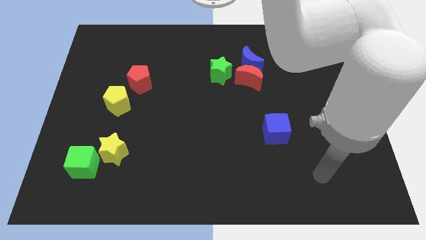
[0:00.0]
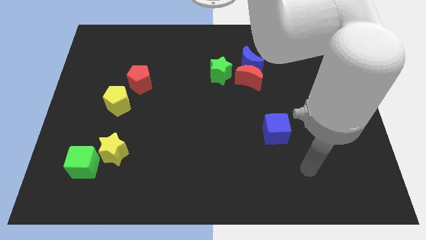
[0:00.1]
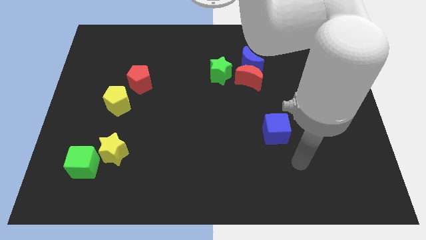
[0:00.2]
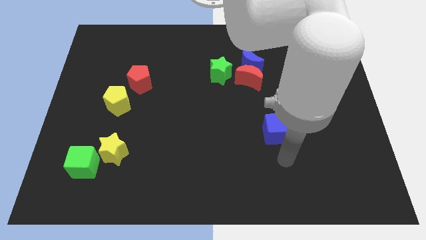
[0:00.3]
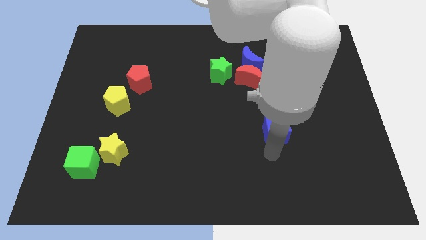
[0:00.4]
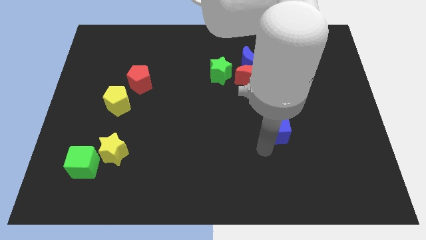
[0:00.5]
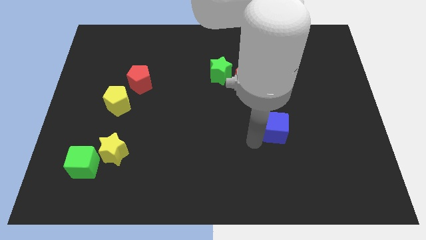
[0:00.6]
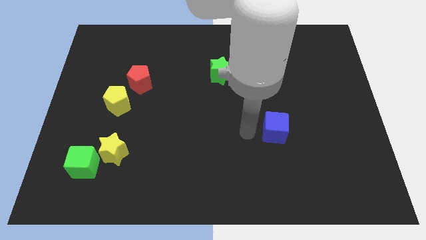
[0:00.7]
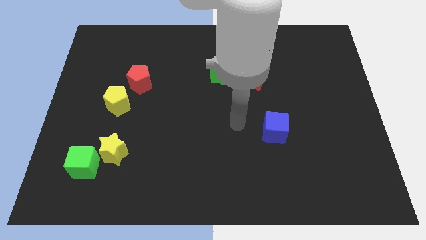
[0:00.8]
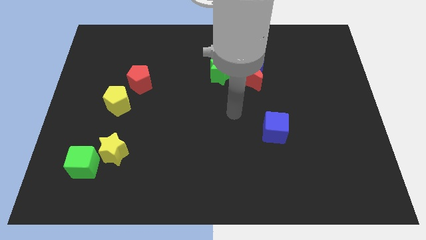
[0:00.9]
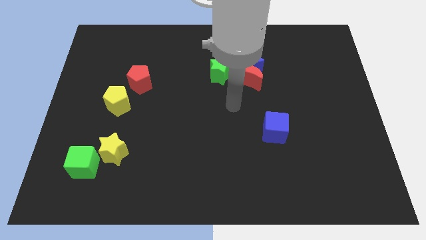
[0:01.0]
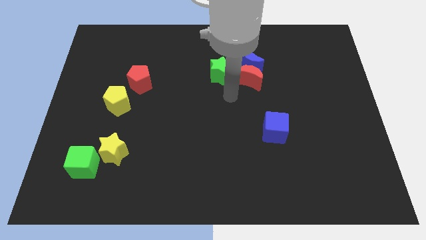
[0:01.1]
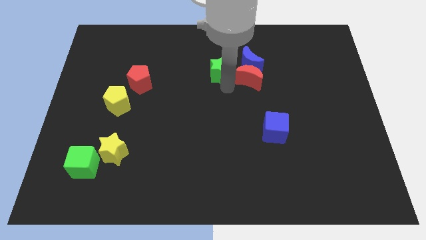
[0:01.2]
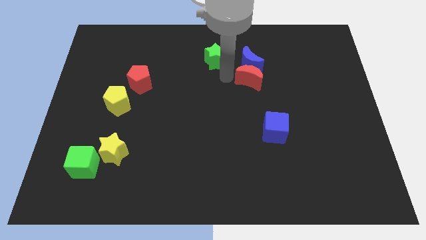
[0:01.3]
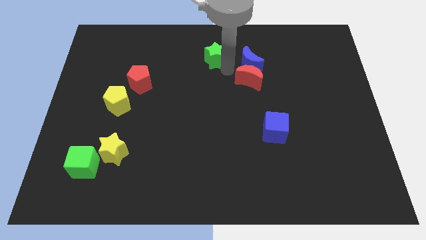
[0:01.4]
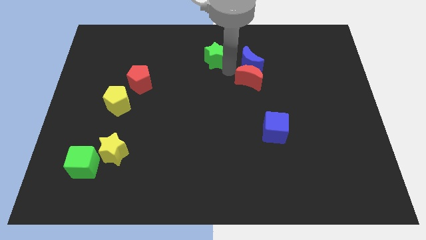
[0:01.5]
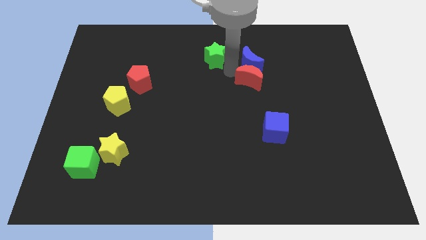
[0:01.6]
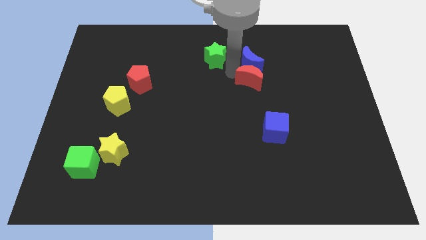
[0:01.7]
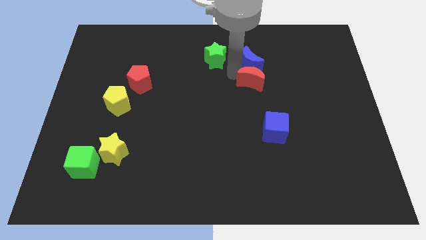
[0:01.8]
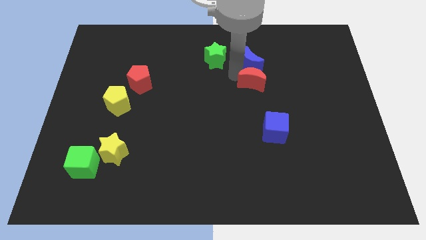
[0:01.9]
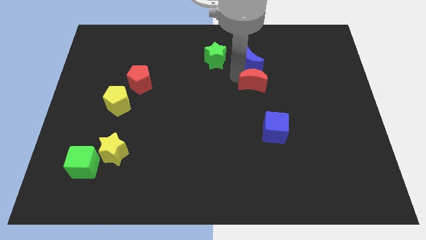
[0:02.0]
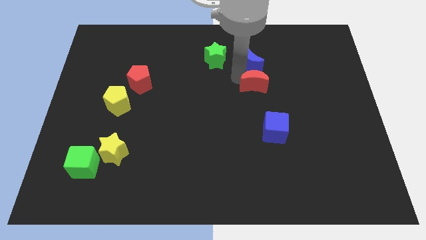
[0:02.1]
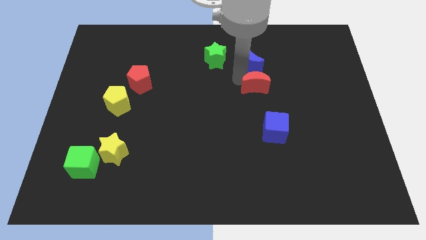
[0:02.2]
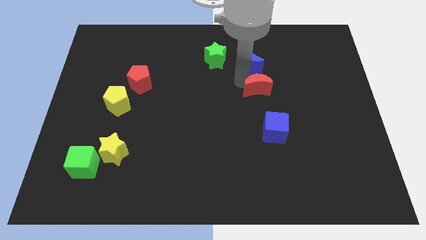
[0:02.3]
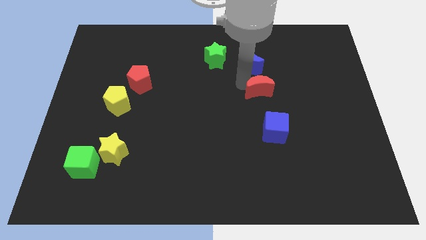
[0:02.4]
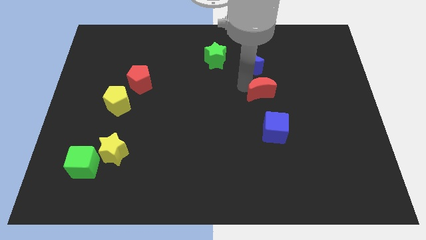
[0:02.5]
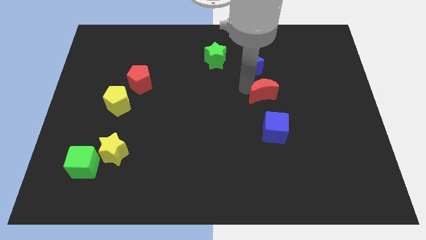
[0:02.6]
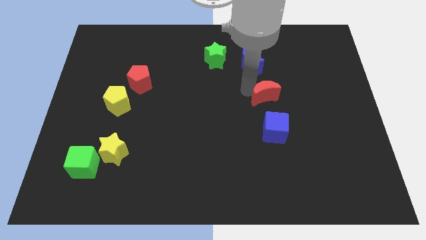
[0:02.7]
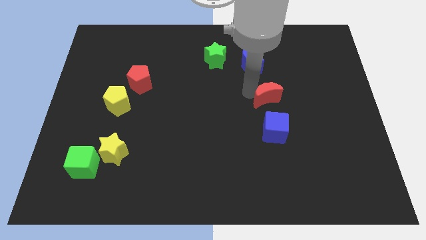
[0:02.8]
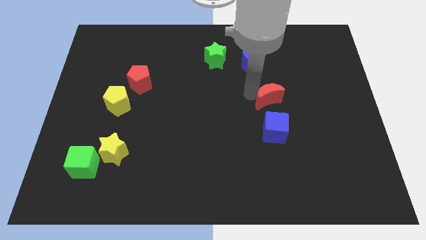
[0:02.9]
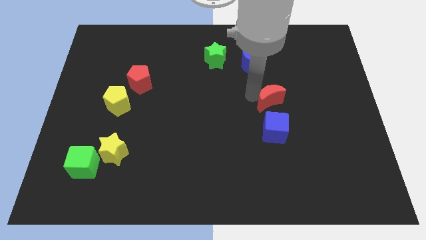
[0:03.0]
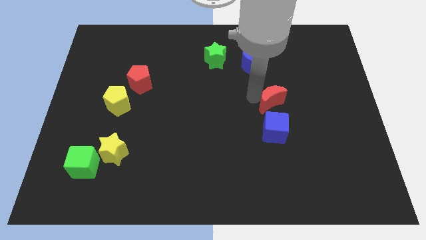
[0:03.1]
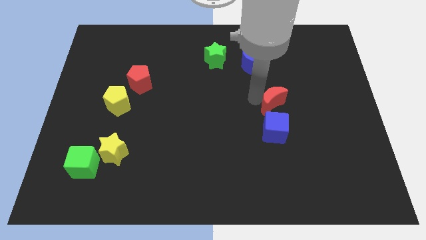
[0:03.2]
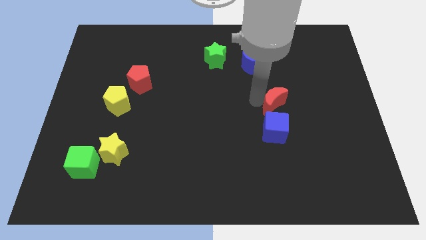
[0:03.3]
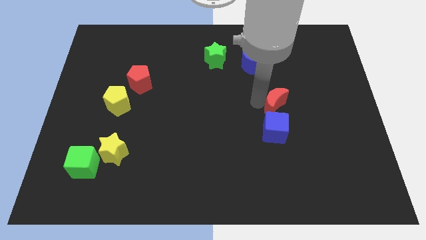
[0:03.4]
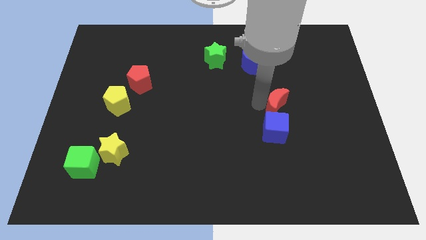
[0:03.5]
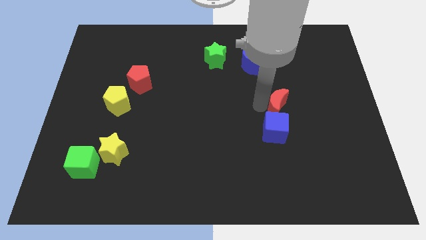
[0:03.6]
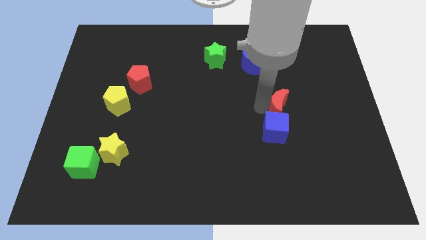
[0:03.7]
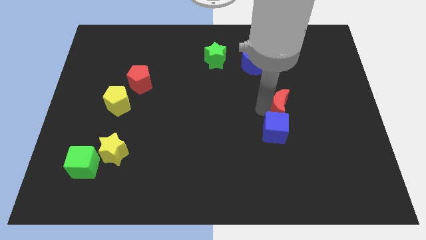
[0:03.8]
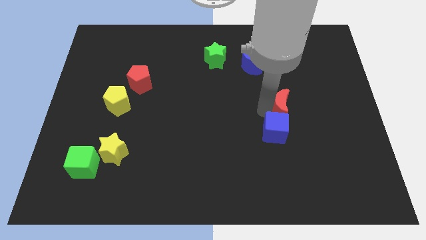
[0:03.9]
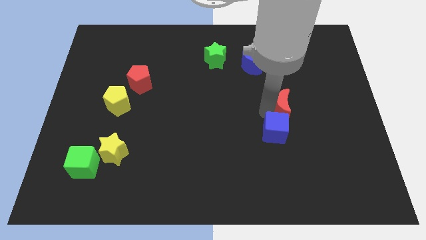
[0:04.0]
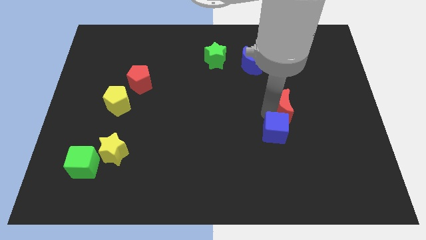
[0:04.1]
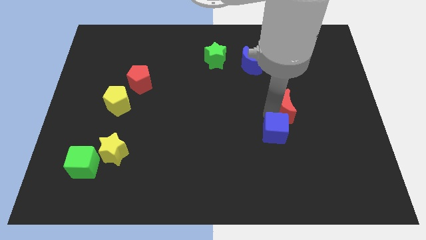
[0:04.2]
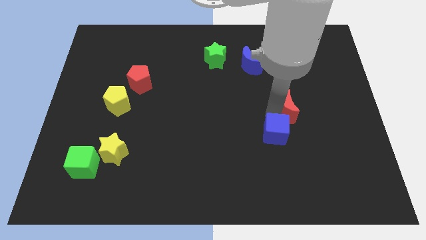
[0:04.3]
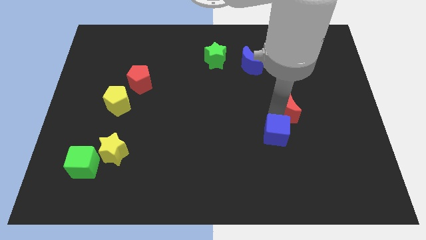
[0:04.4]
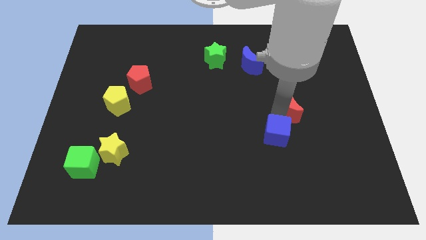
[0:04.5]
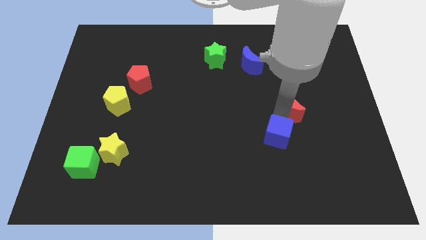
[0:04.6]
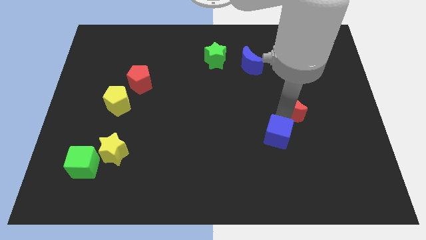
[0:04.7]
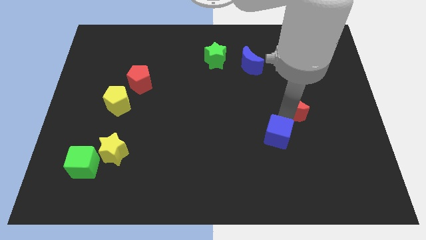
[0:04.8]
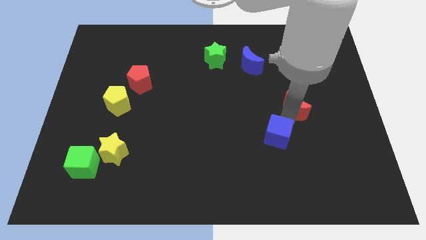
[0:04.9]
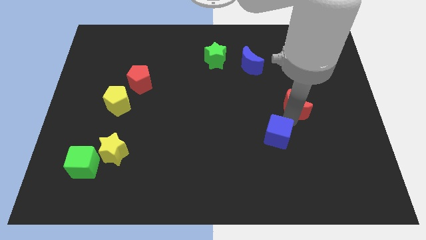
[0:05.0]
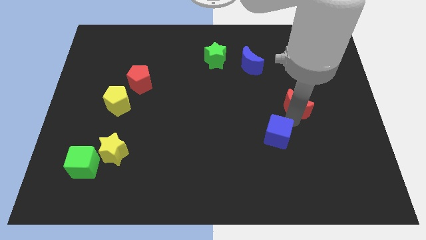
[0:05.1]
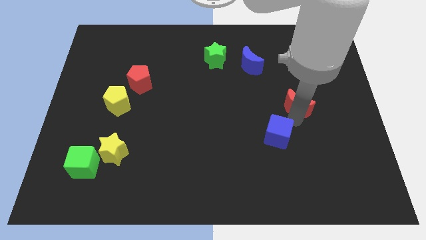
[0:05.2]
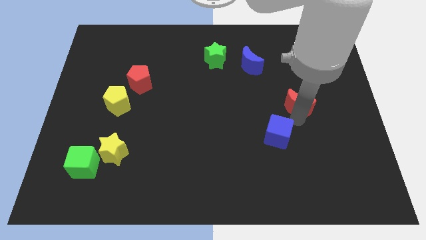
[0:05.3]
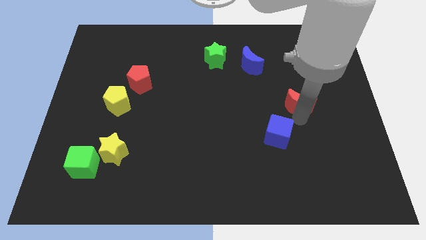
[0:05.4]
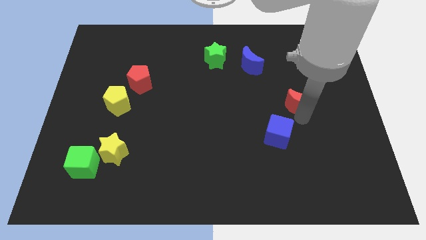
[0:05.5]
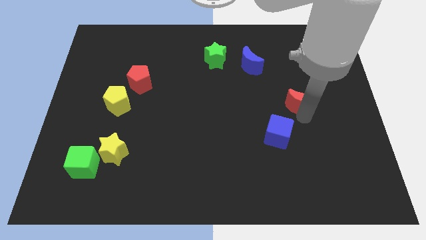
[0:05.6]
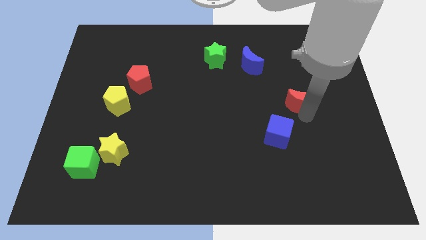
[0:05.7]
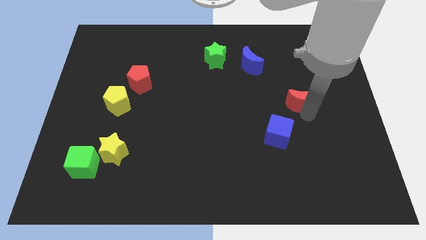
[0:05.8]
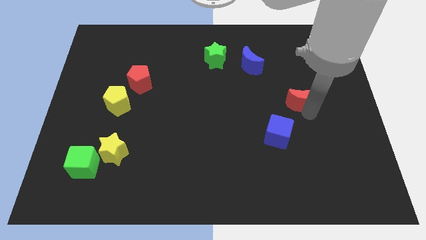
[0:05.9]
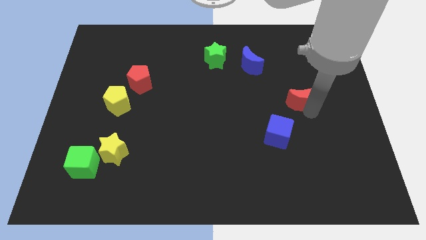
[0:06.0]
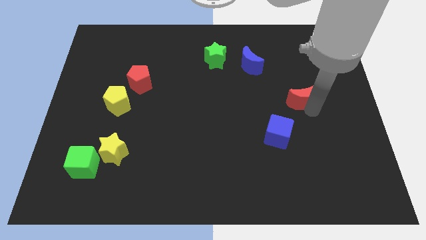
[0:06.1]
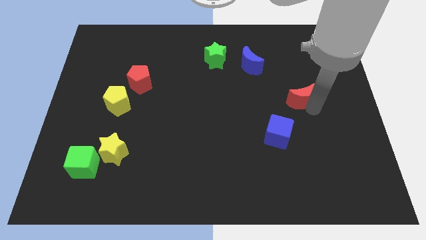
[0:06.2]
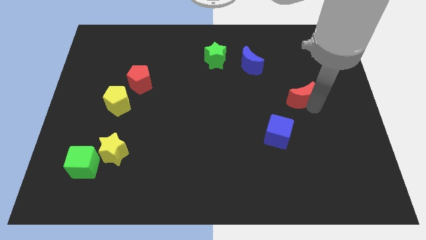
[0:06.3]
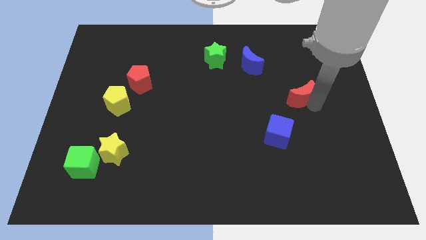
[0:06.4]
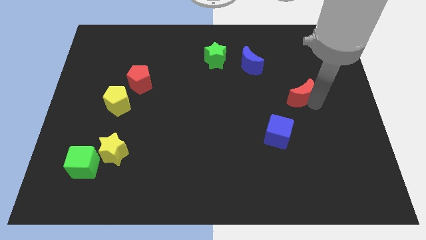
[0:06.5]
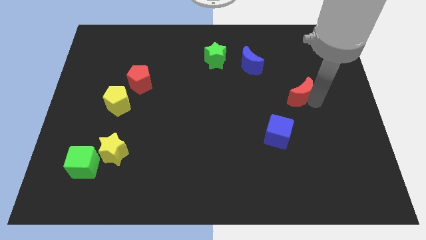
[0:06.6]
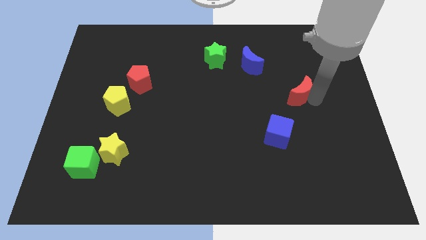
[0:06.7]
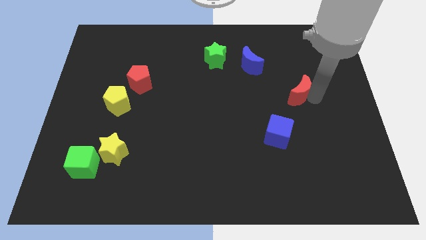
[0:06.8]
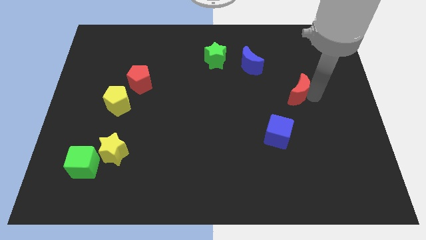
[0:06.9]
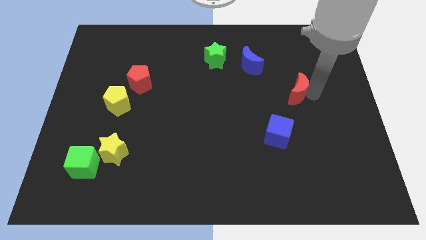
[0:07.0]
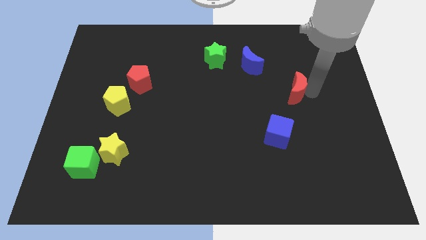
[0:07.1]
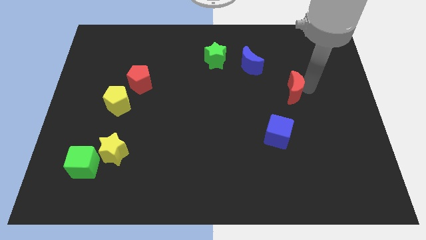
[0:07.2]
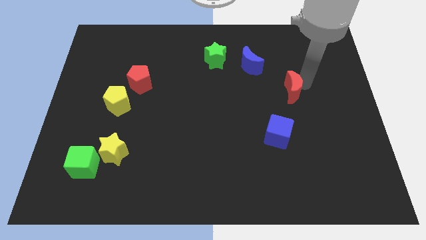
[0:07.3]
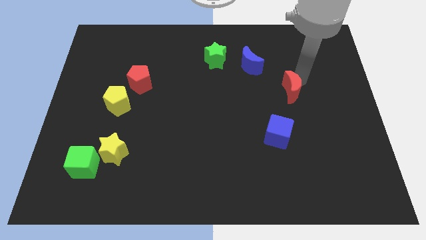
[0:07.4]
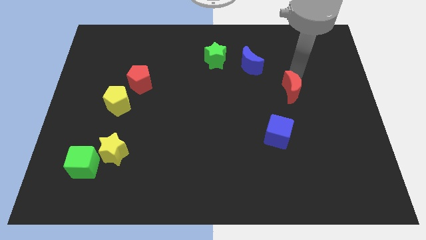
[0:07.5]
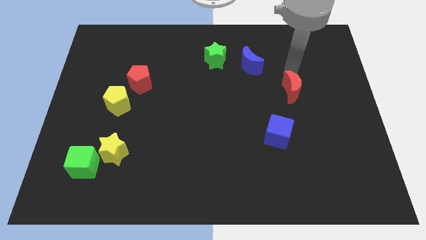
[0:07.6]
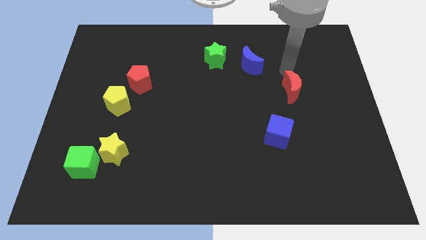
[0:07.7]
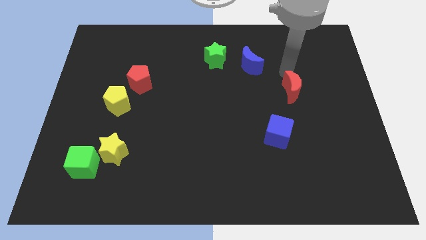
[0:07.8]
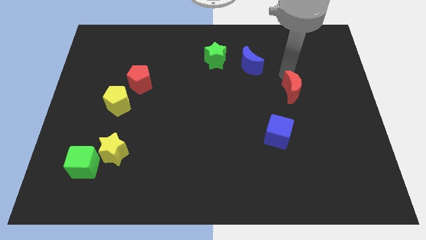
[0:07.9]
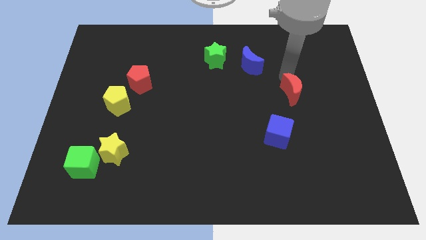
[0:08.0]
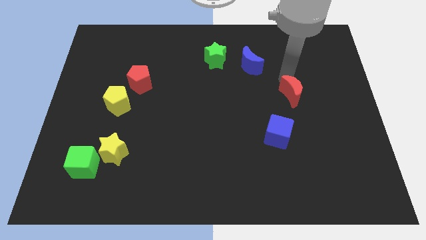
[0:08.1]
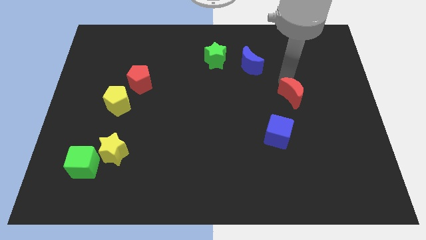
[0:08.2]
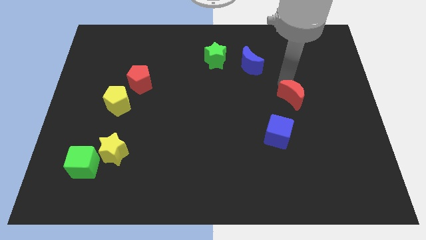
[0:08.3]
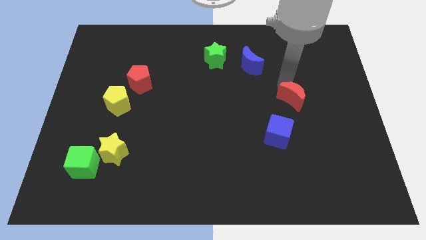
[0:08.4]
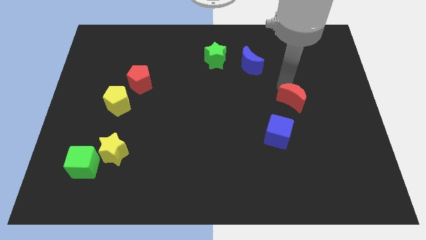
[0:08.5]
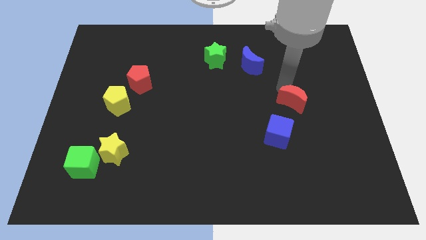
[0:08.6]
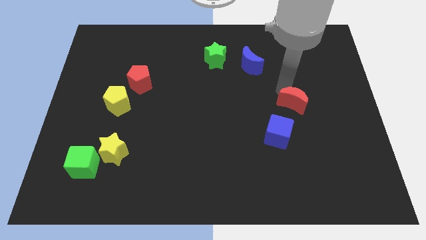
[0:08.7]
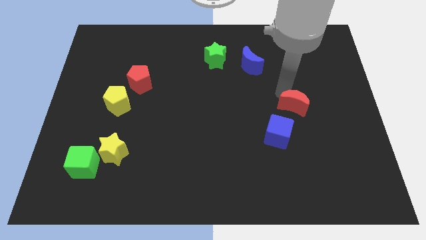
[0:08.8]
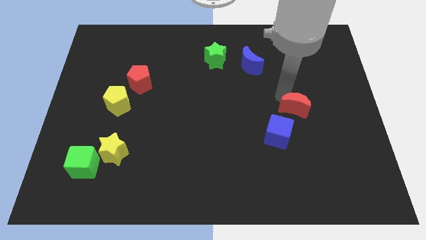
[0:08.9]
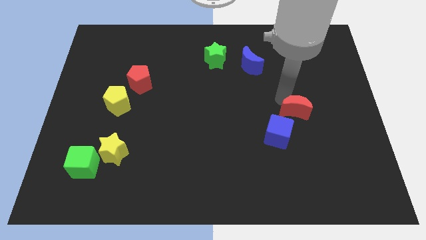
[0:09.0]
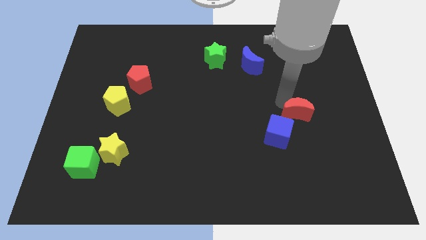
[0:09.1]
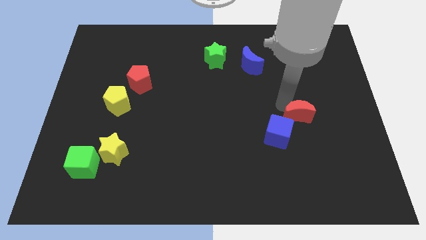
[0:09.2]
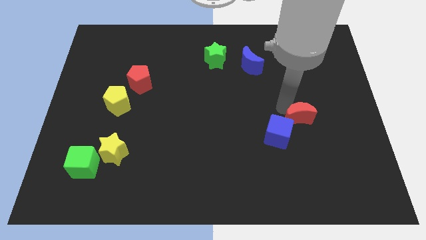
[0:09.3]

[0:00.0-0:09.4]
put the red moon just right of the blue cube
